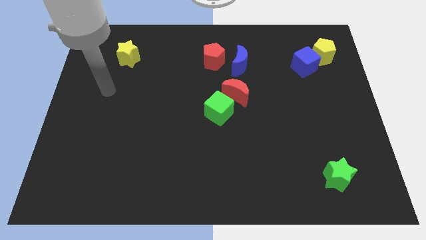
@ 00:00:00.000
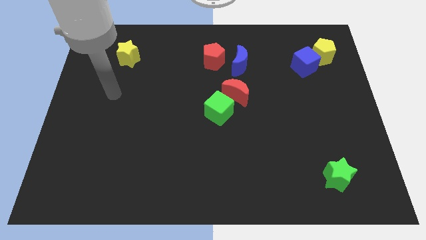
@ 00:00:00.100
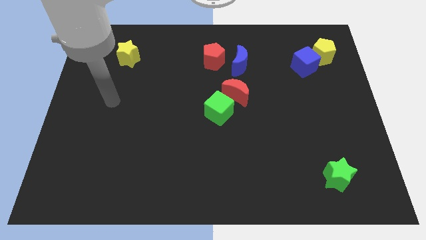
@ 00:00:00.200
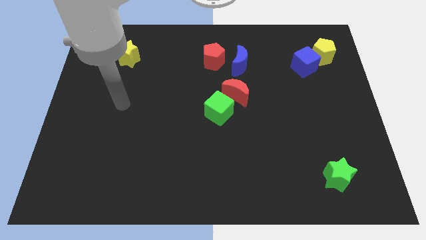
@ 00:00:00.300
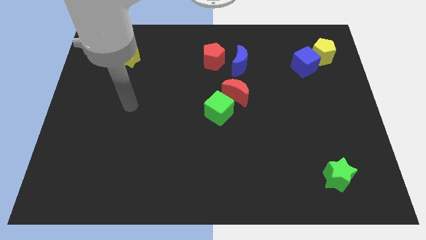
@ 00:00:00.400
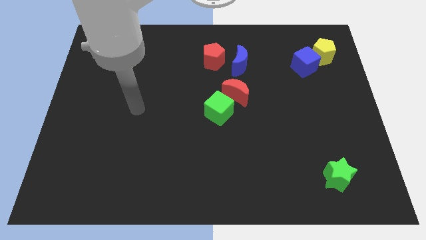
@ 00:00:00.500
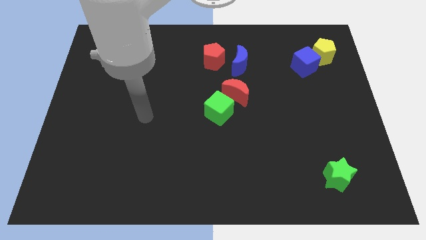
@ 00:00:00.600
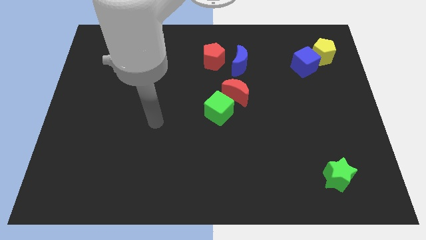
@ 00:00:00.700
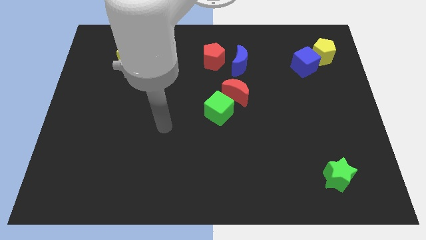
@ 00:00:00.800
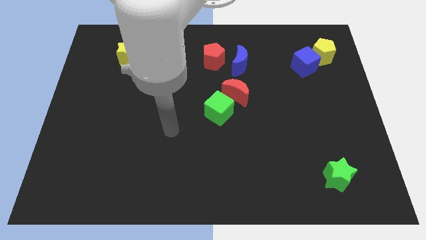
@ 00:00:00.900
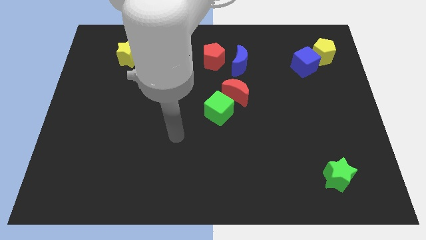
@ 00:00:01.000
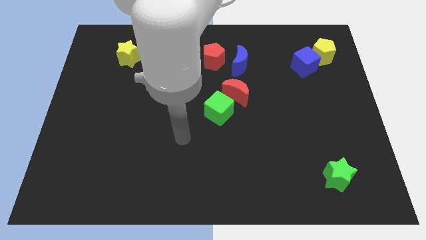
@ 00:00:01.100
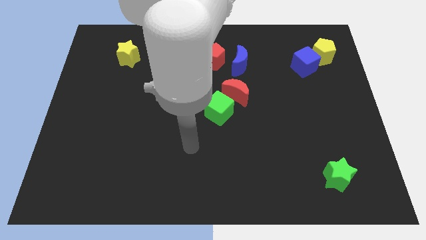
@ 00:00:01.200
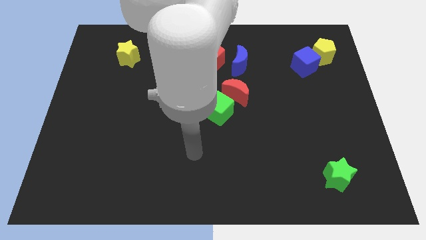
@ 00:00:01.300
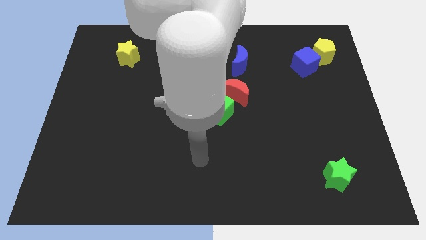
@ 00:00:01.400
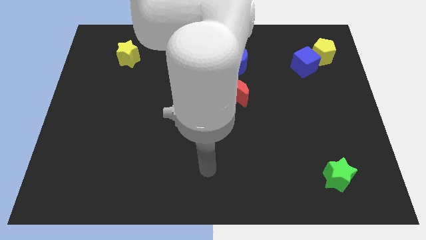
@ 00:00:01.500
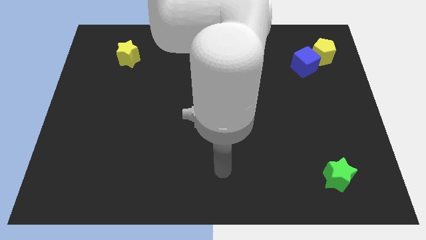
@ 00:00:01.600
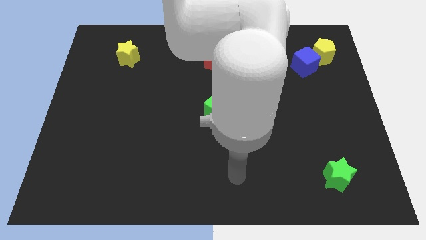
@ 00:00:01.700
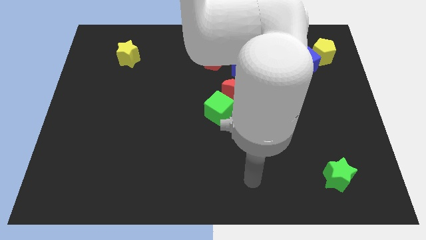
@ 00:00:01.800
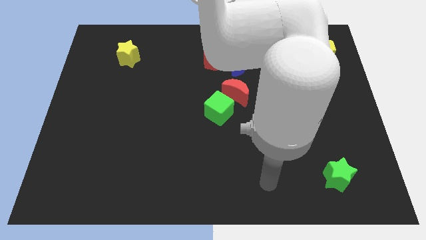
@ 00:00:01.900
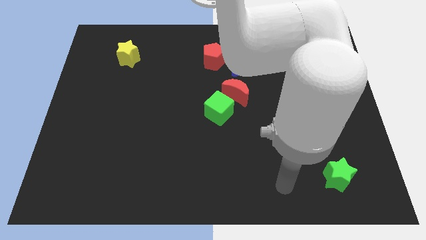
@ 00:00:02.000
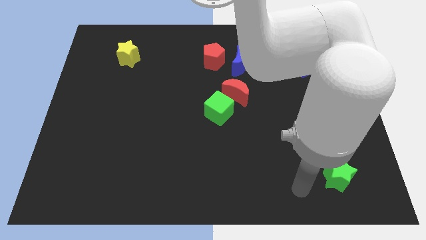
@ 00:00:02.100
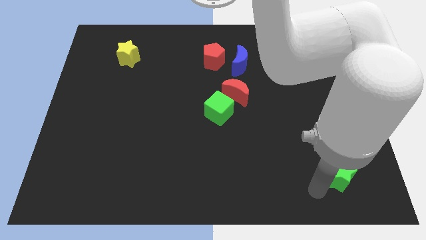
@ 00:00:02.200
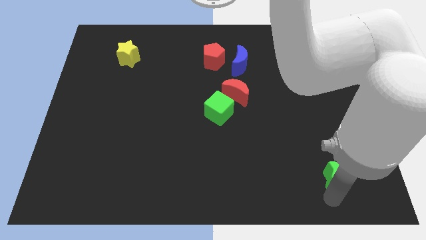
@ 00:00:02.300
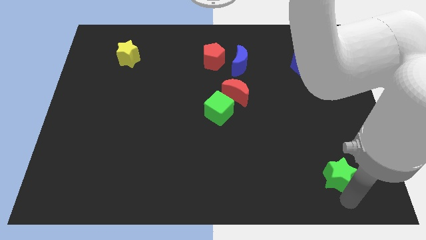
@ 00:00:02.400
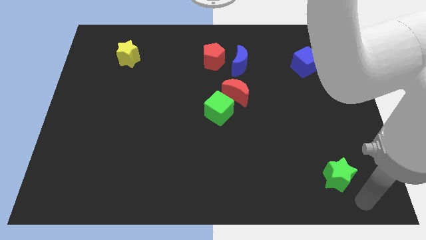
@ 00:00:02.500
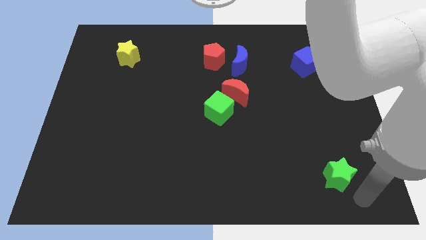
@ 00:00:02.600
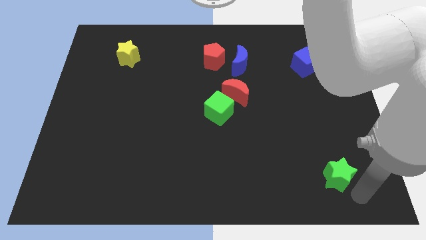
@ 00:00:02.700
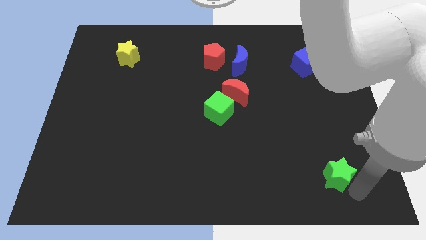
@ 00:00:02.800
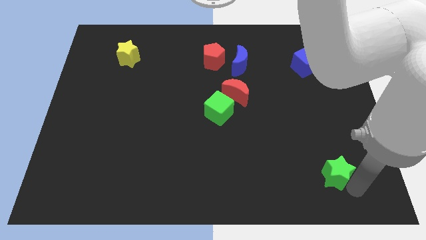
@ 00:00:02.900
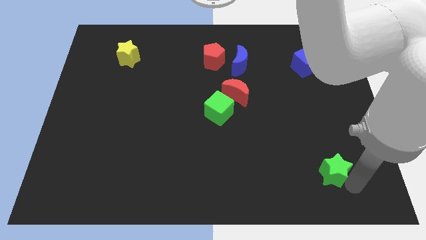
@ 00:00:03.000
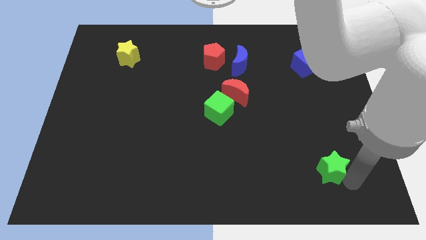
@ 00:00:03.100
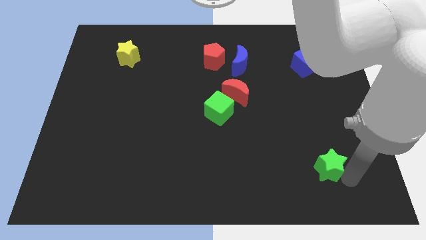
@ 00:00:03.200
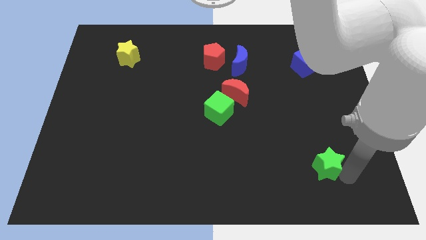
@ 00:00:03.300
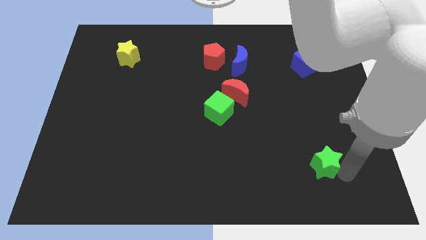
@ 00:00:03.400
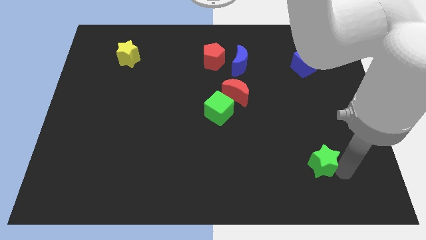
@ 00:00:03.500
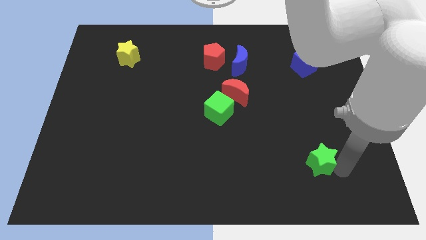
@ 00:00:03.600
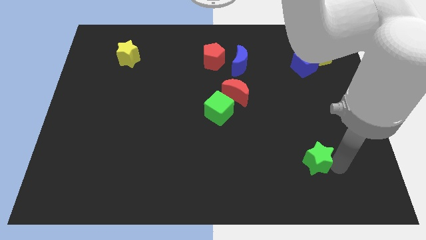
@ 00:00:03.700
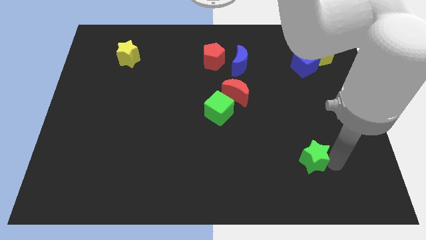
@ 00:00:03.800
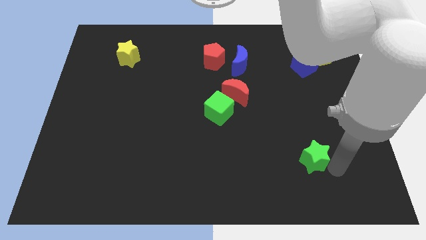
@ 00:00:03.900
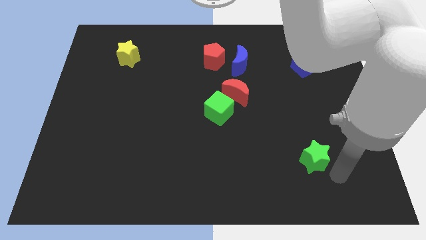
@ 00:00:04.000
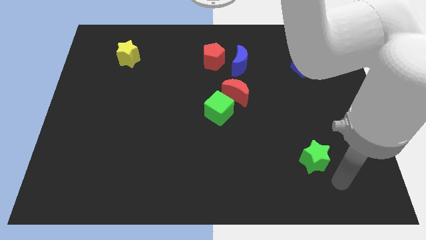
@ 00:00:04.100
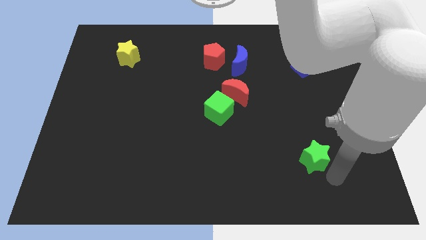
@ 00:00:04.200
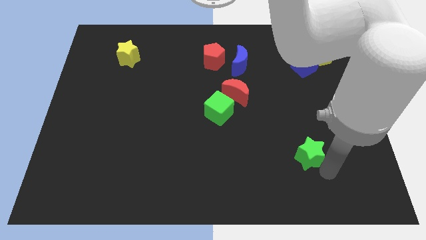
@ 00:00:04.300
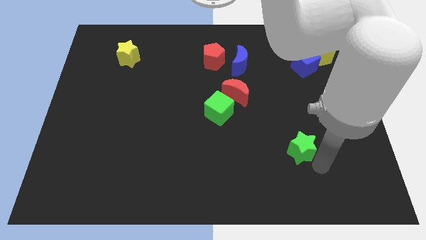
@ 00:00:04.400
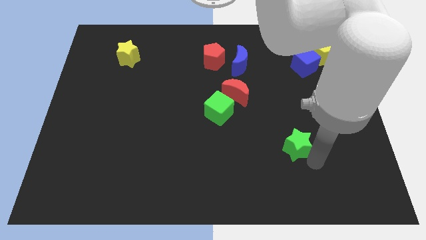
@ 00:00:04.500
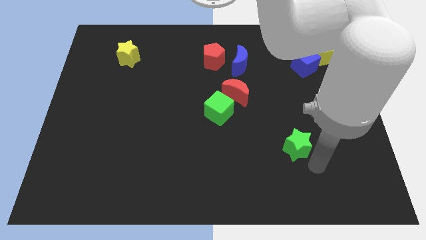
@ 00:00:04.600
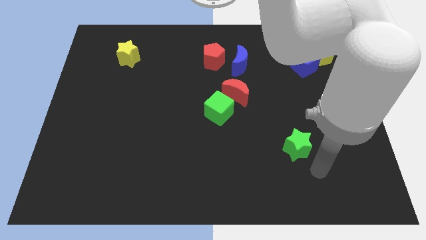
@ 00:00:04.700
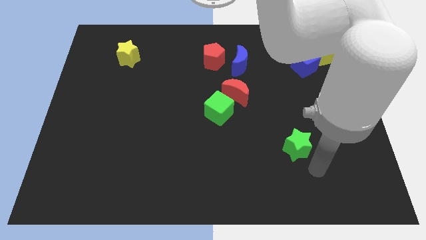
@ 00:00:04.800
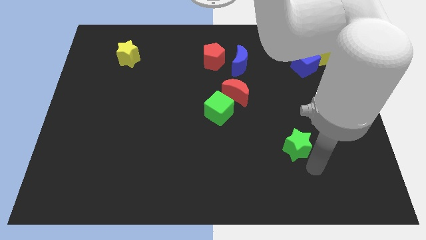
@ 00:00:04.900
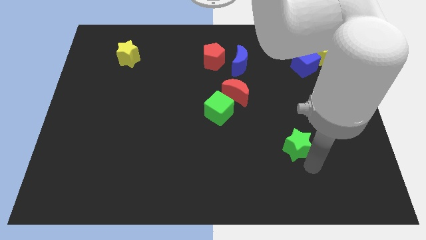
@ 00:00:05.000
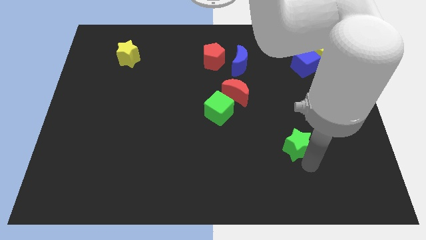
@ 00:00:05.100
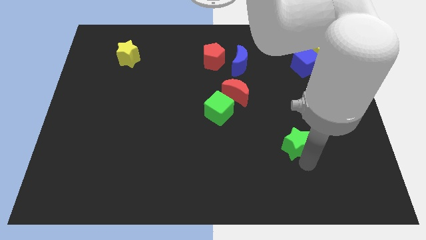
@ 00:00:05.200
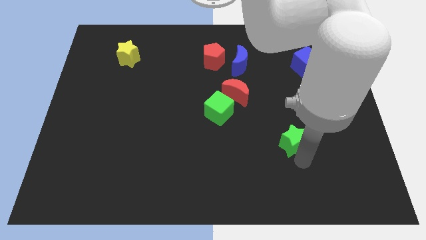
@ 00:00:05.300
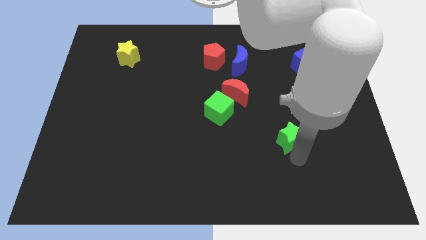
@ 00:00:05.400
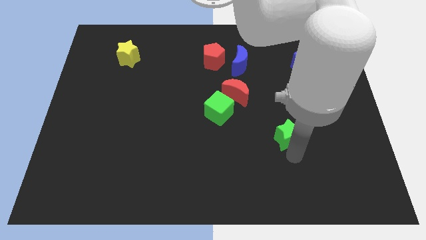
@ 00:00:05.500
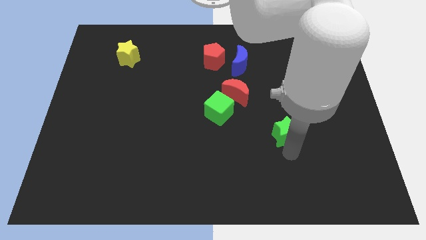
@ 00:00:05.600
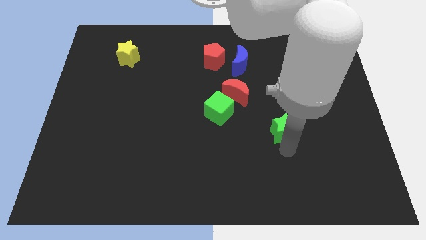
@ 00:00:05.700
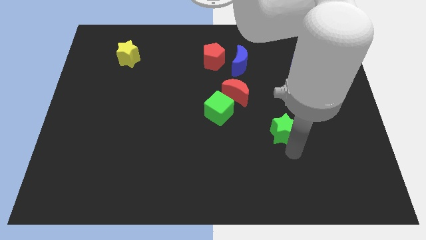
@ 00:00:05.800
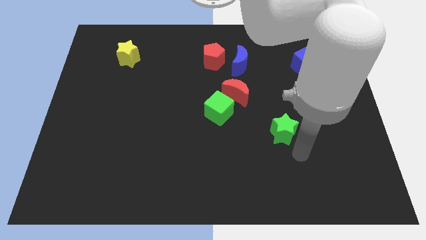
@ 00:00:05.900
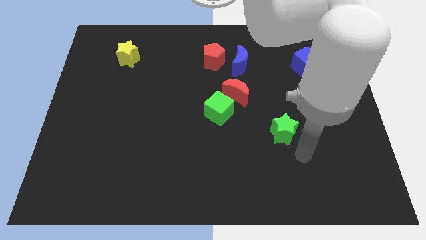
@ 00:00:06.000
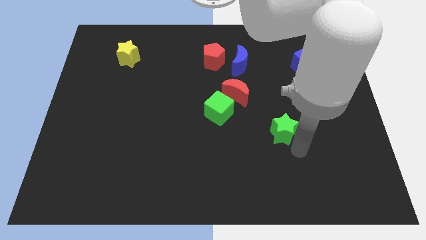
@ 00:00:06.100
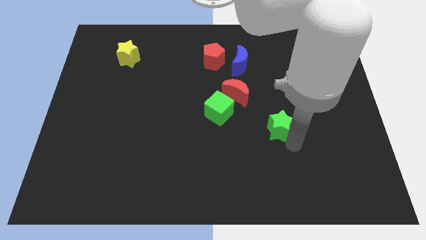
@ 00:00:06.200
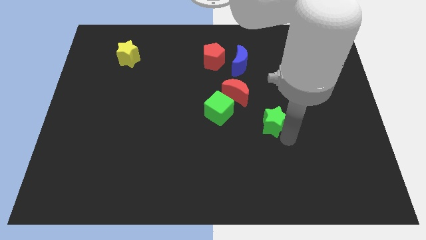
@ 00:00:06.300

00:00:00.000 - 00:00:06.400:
slide the green star to the right of the green cube

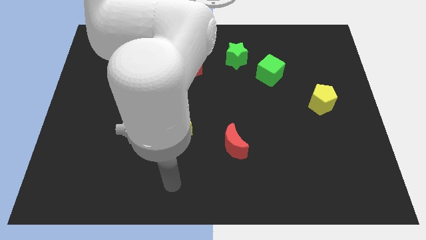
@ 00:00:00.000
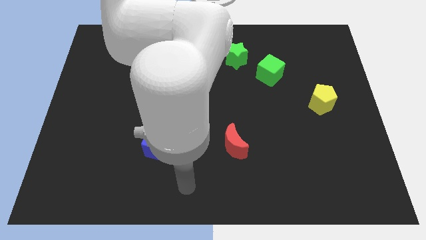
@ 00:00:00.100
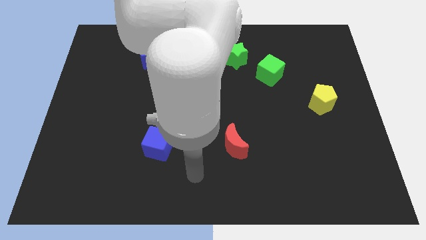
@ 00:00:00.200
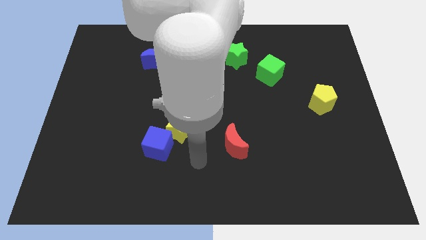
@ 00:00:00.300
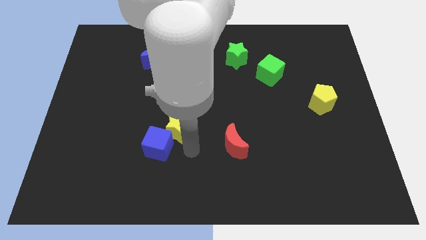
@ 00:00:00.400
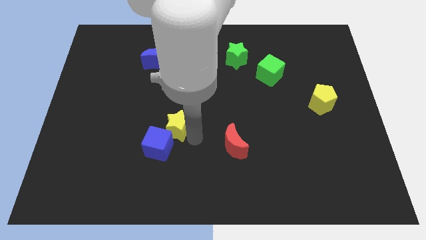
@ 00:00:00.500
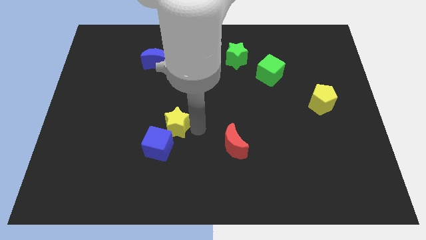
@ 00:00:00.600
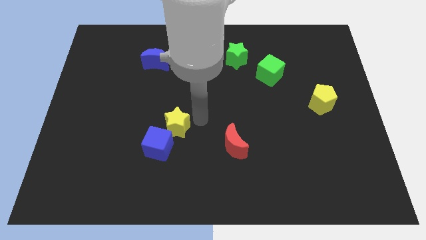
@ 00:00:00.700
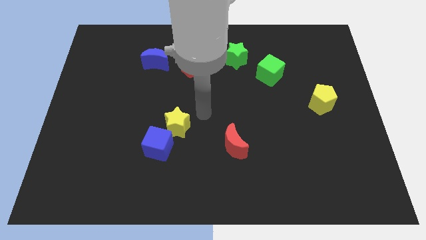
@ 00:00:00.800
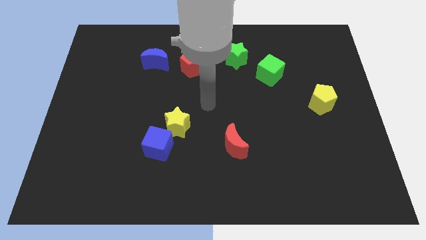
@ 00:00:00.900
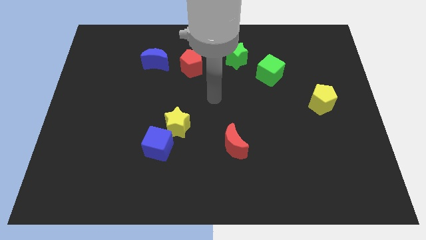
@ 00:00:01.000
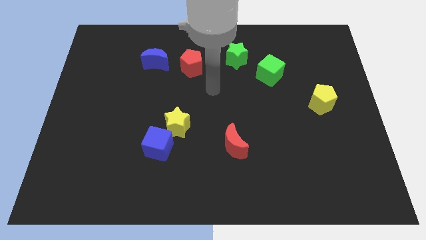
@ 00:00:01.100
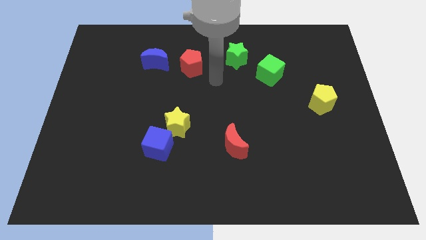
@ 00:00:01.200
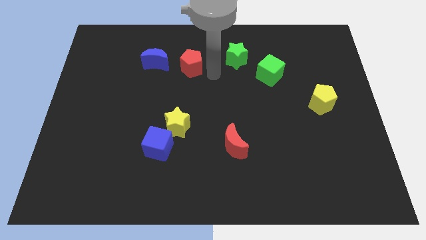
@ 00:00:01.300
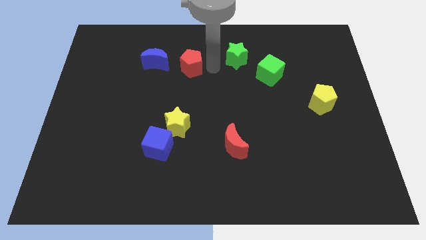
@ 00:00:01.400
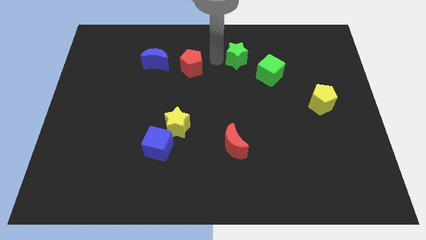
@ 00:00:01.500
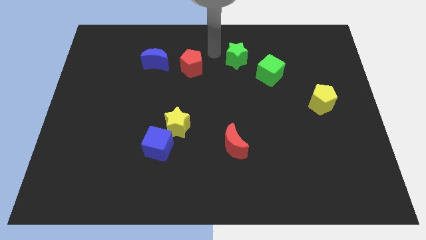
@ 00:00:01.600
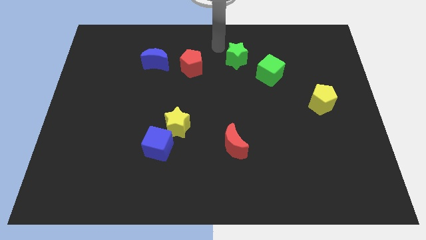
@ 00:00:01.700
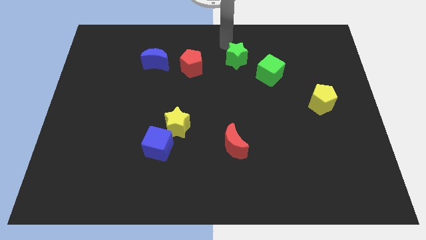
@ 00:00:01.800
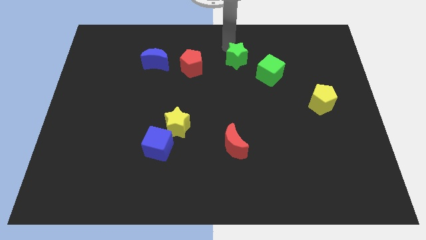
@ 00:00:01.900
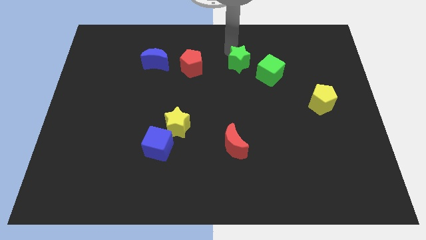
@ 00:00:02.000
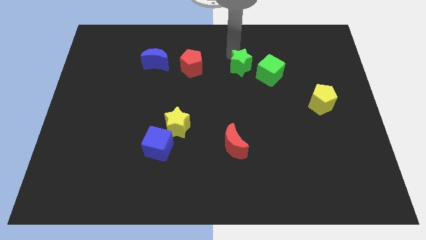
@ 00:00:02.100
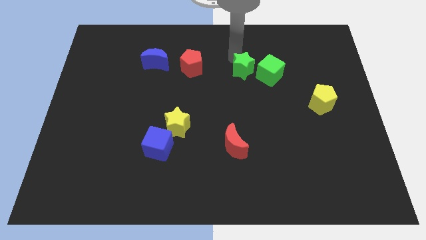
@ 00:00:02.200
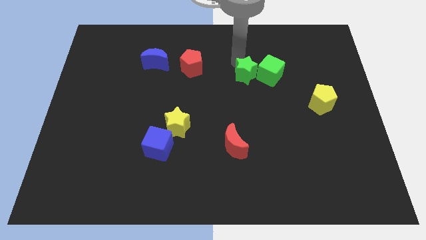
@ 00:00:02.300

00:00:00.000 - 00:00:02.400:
put the green star to the bottom left of the green cube
